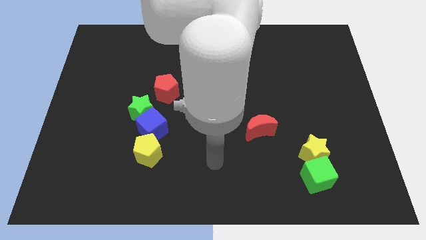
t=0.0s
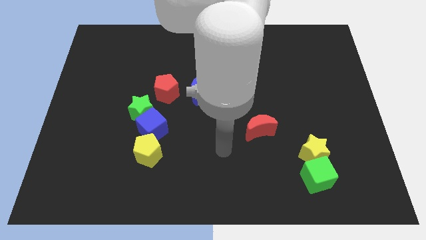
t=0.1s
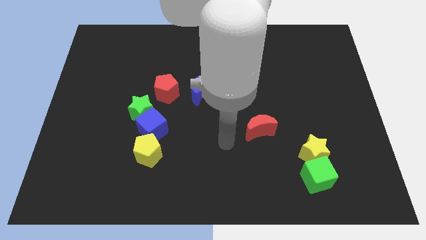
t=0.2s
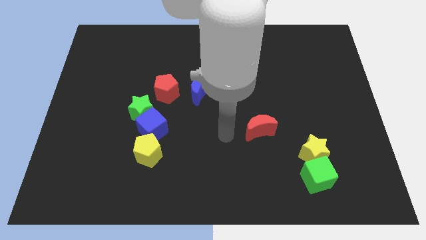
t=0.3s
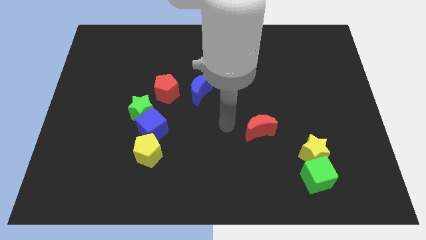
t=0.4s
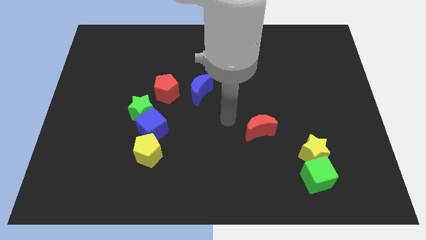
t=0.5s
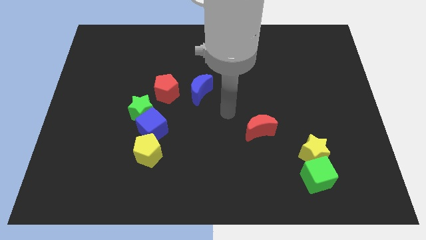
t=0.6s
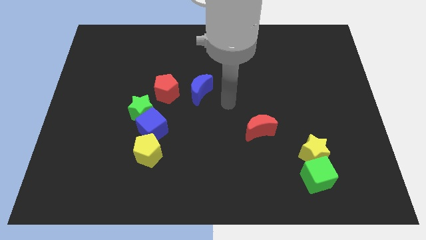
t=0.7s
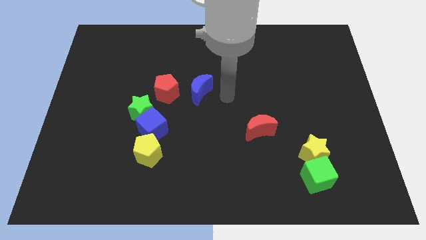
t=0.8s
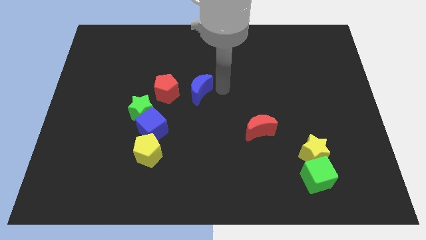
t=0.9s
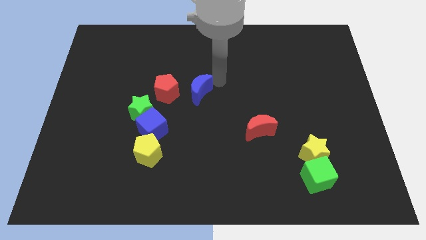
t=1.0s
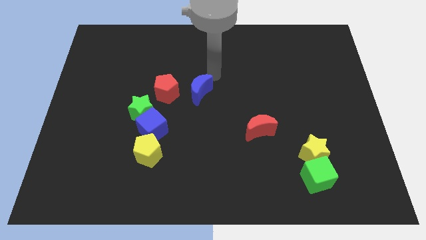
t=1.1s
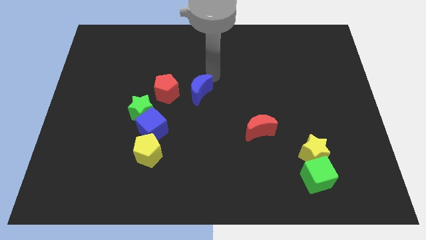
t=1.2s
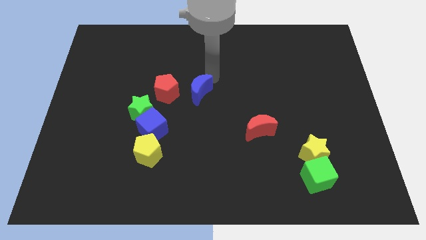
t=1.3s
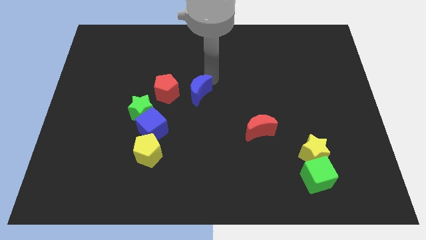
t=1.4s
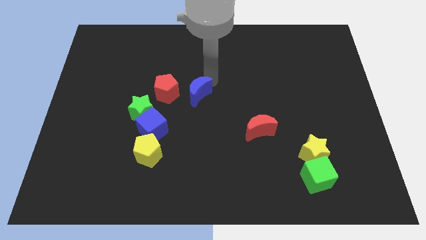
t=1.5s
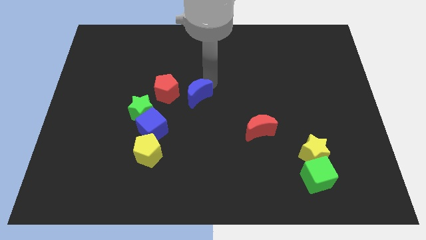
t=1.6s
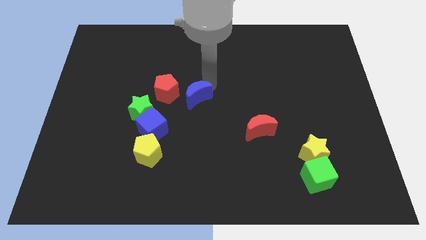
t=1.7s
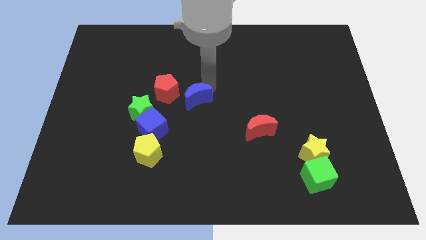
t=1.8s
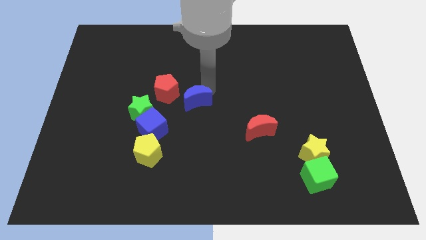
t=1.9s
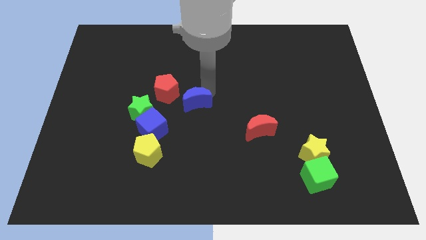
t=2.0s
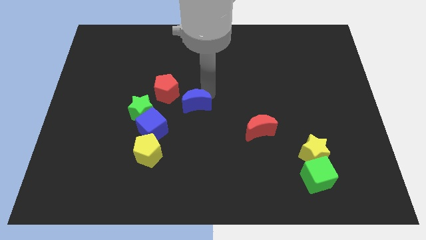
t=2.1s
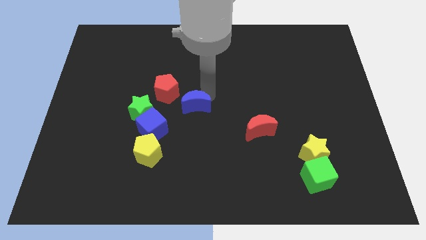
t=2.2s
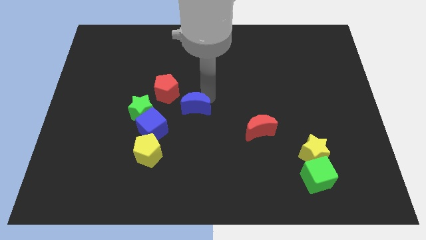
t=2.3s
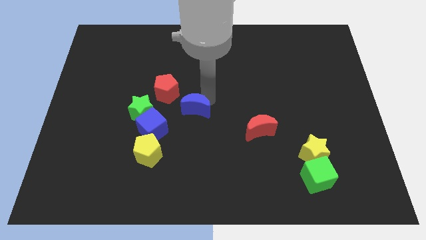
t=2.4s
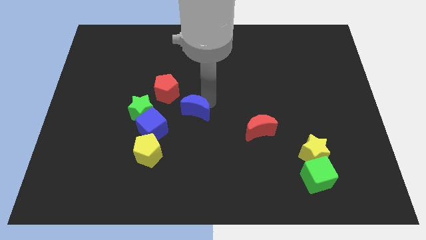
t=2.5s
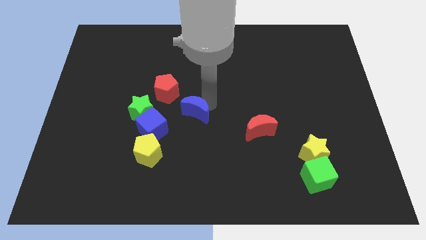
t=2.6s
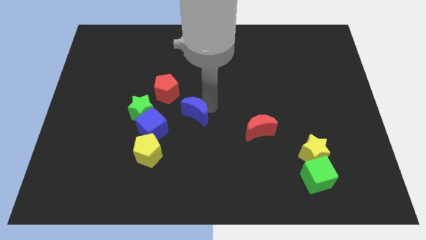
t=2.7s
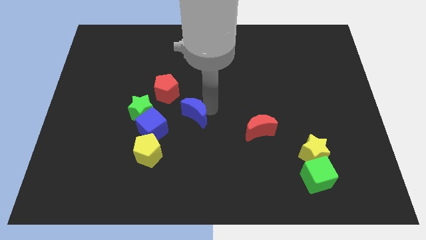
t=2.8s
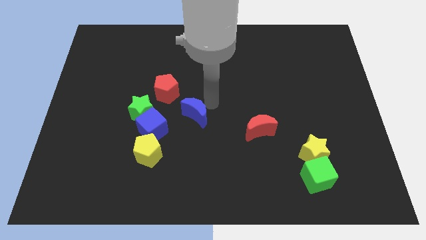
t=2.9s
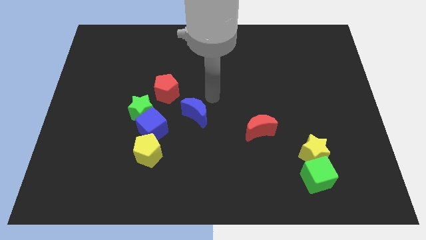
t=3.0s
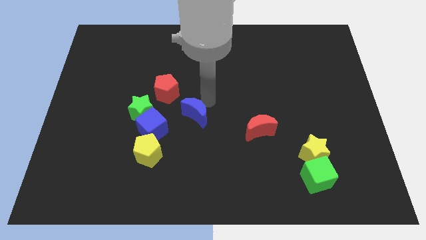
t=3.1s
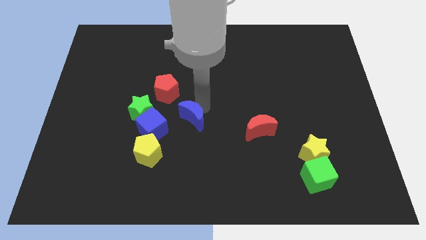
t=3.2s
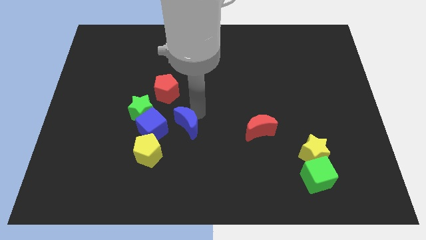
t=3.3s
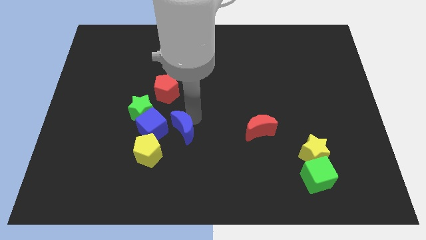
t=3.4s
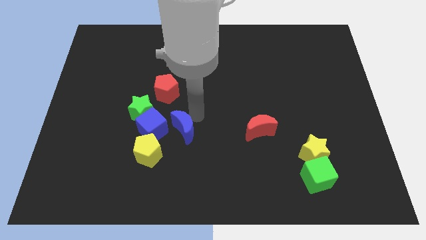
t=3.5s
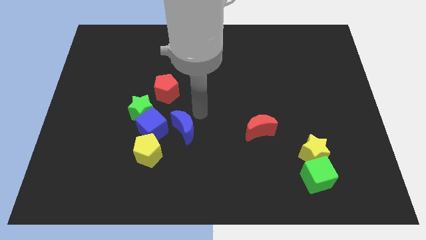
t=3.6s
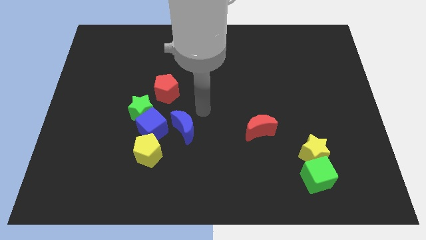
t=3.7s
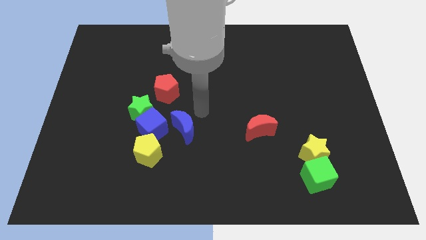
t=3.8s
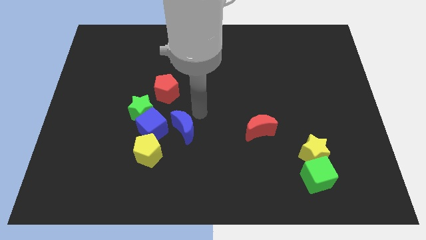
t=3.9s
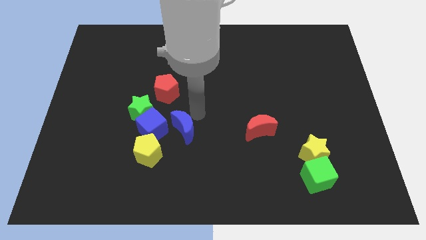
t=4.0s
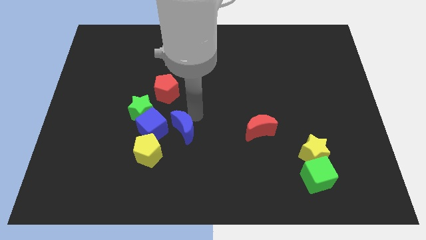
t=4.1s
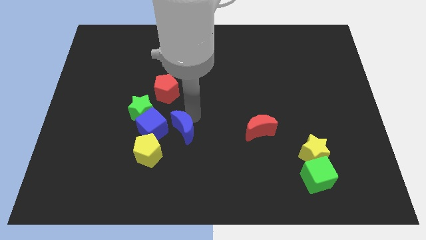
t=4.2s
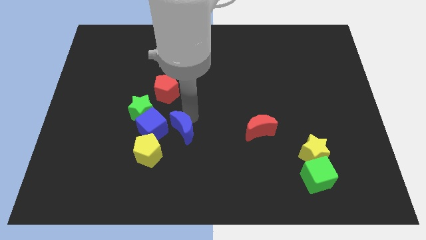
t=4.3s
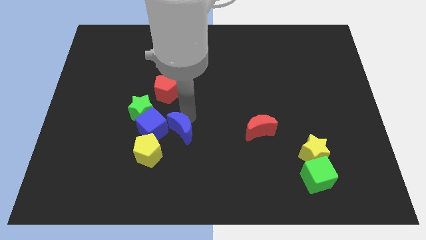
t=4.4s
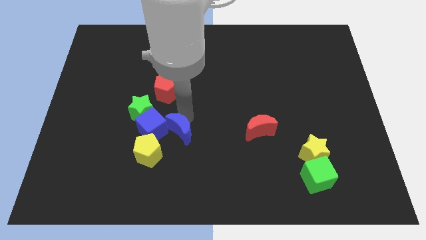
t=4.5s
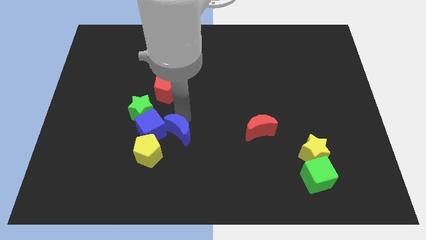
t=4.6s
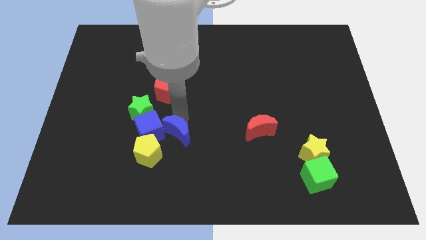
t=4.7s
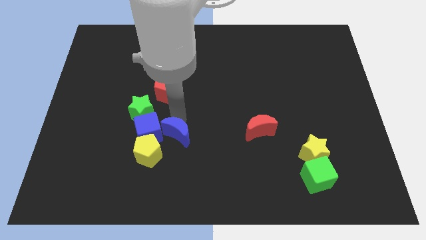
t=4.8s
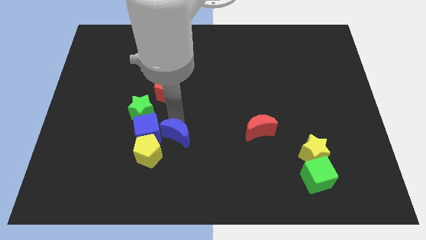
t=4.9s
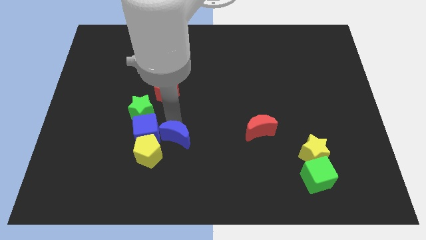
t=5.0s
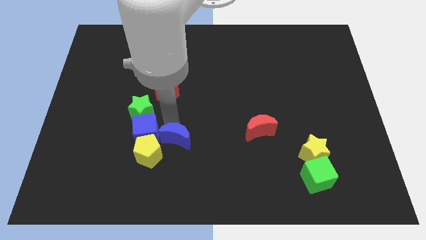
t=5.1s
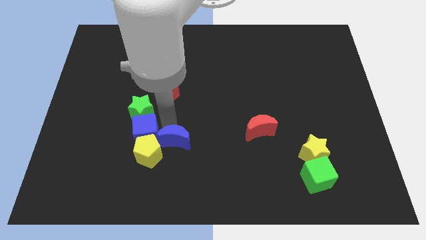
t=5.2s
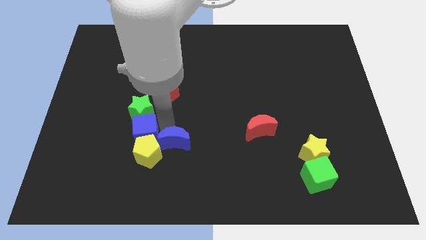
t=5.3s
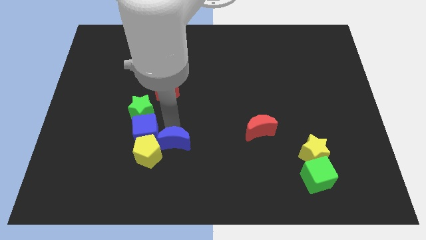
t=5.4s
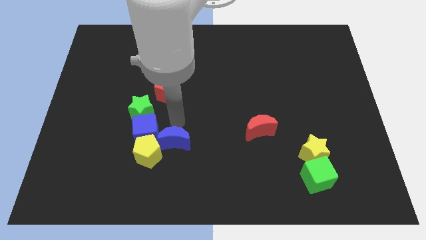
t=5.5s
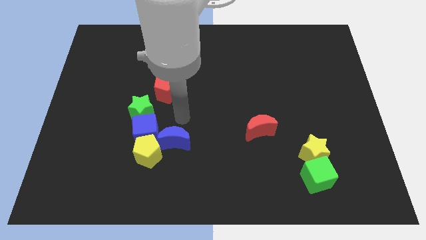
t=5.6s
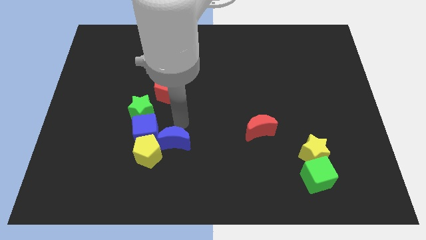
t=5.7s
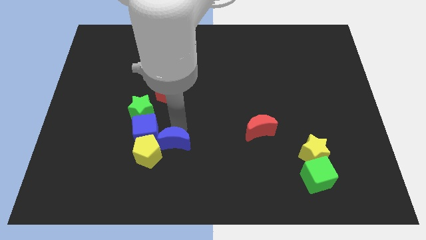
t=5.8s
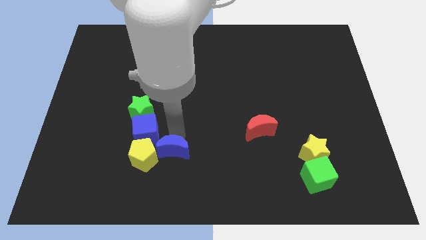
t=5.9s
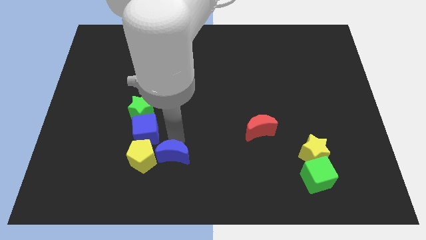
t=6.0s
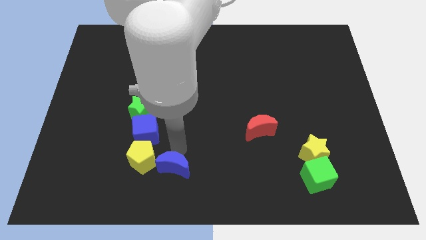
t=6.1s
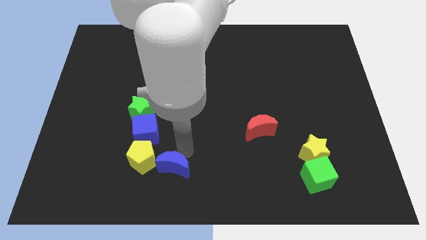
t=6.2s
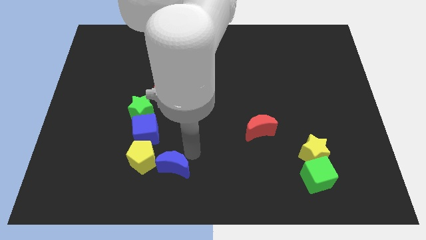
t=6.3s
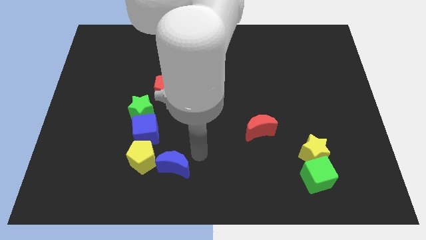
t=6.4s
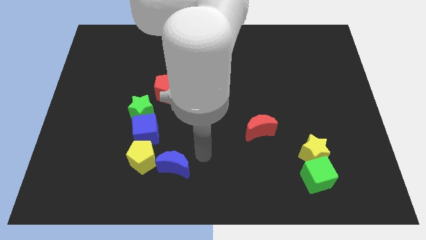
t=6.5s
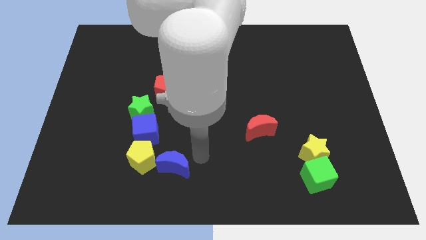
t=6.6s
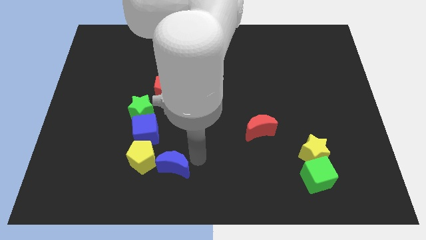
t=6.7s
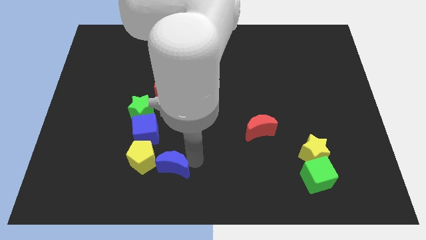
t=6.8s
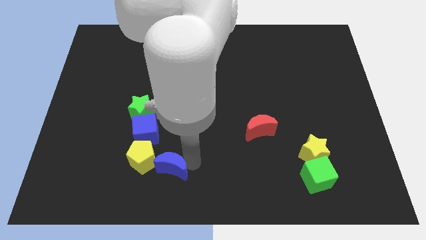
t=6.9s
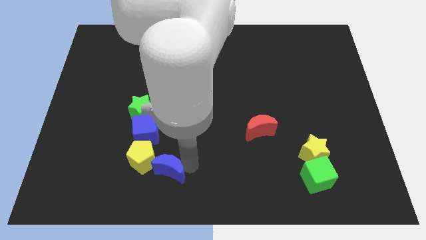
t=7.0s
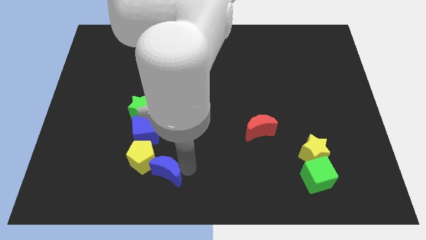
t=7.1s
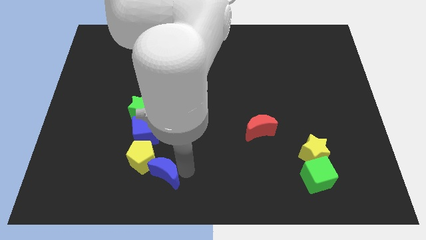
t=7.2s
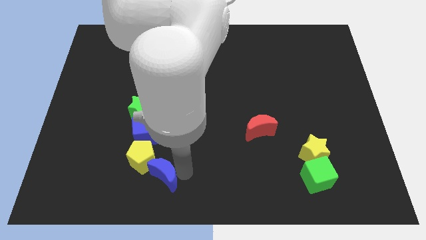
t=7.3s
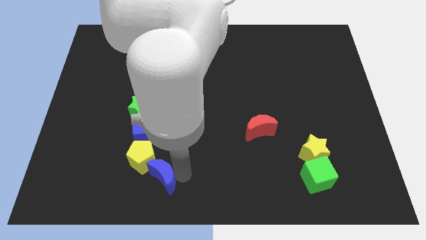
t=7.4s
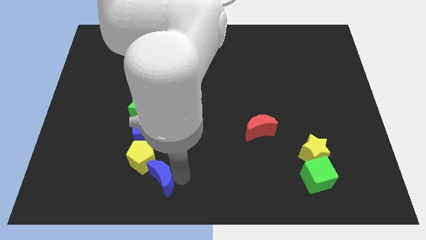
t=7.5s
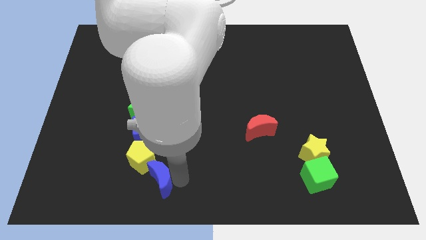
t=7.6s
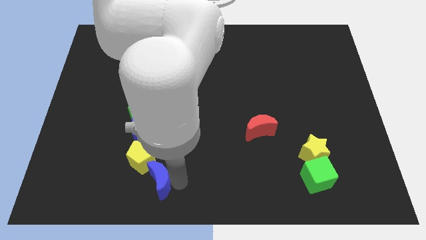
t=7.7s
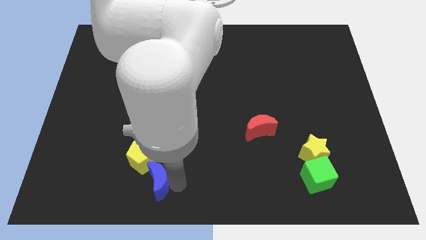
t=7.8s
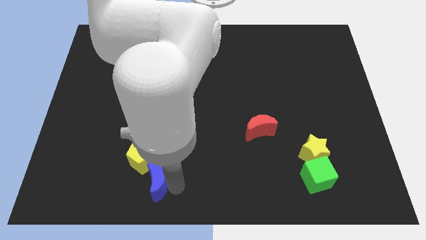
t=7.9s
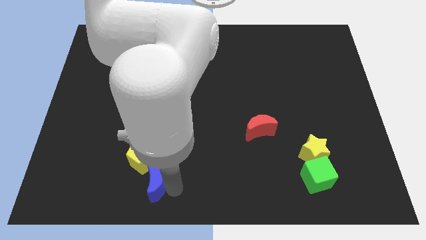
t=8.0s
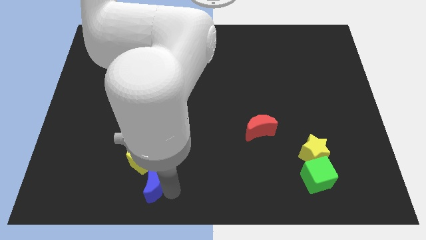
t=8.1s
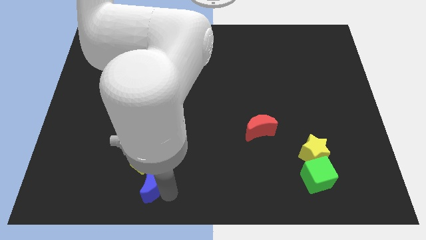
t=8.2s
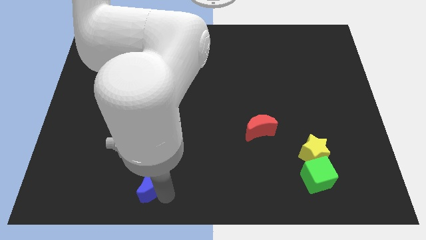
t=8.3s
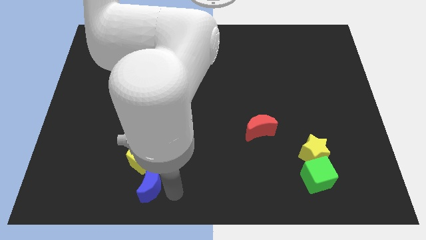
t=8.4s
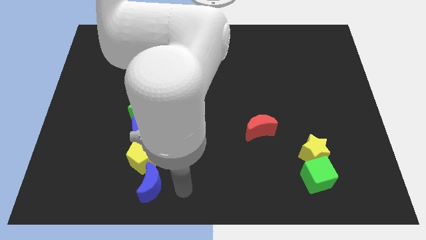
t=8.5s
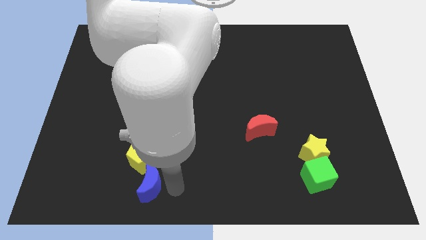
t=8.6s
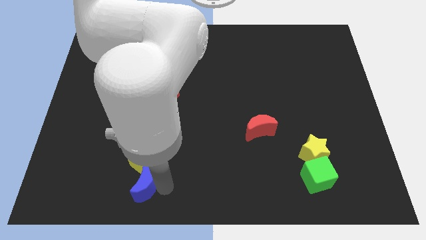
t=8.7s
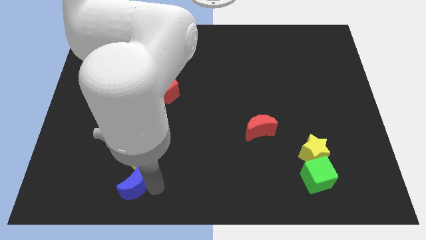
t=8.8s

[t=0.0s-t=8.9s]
put the blue moon to the bottom left of the yellow pentagon
